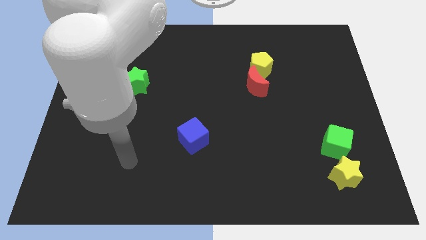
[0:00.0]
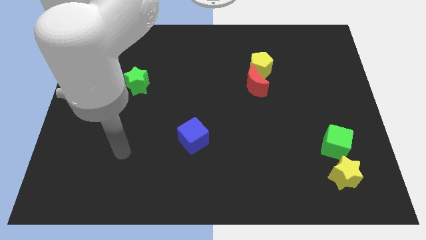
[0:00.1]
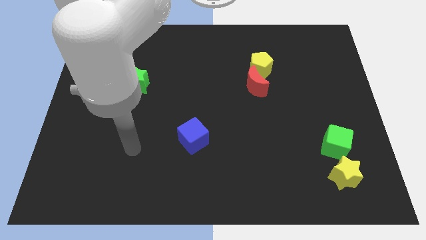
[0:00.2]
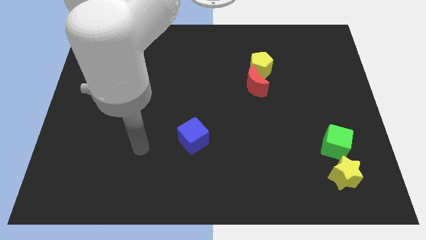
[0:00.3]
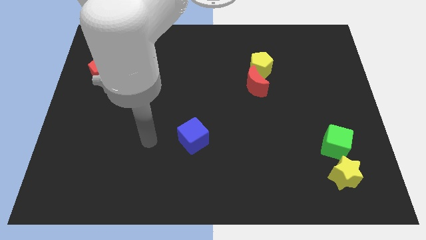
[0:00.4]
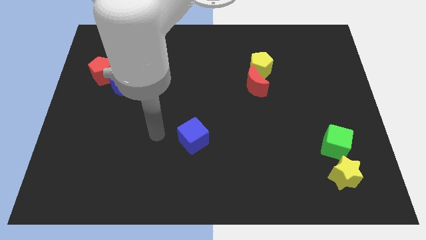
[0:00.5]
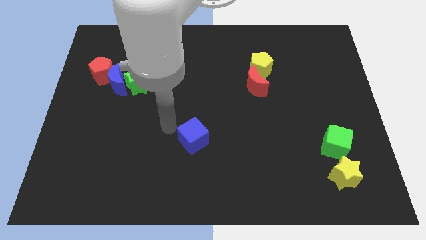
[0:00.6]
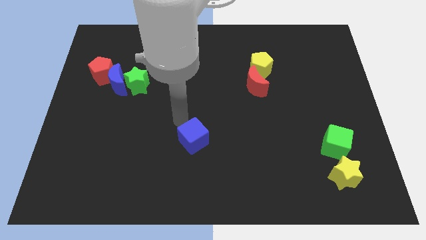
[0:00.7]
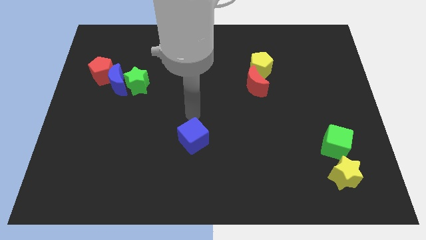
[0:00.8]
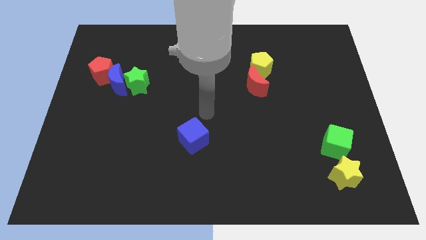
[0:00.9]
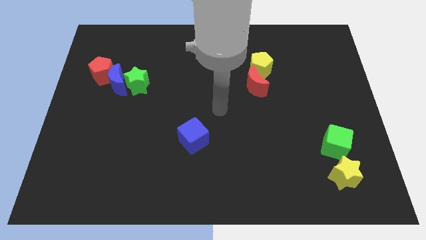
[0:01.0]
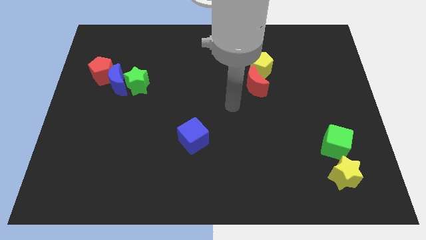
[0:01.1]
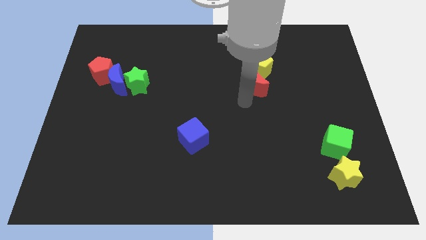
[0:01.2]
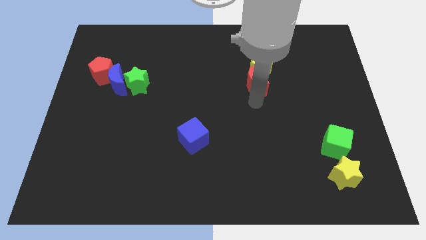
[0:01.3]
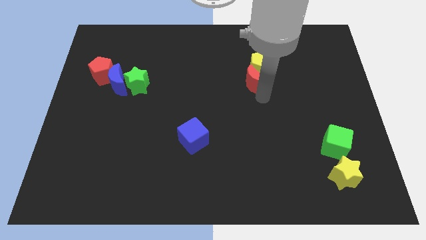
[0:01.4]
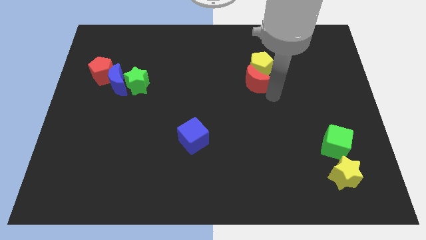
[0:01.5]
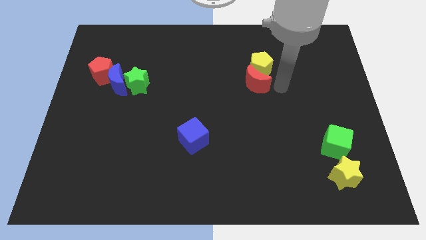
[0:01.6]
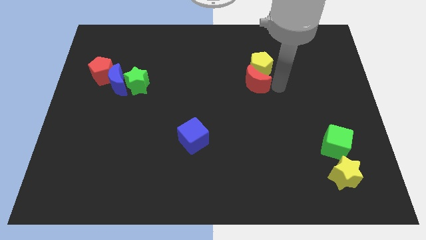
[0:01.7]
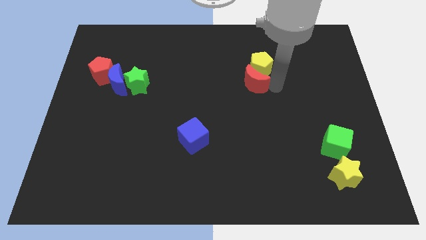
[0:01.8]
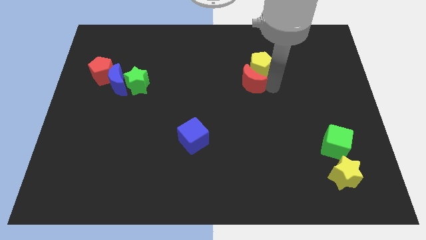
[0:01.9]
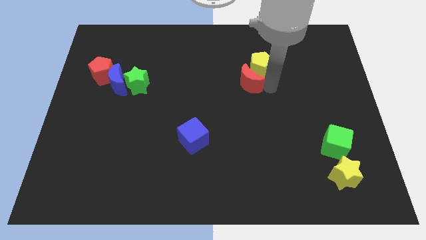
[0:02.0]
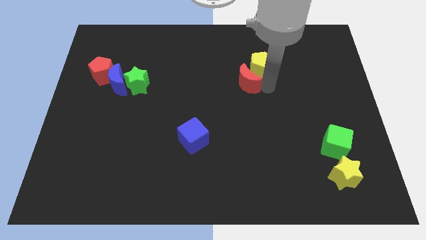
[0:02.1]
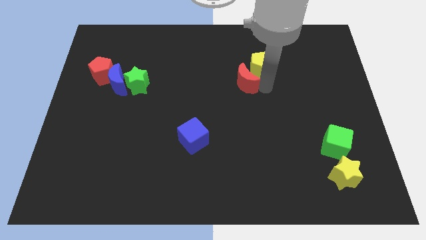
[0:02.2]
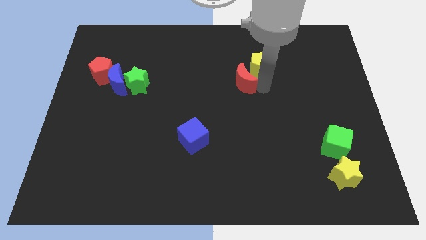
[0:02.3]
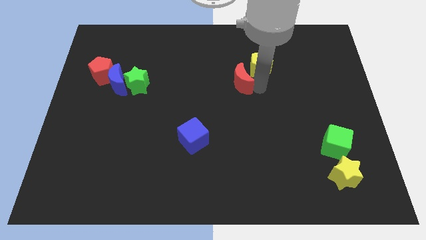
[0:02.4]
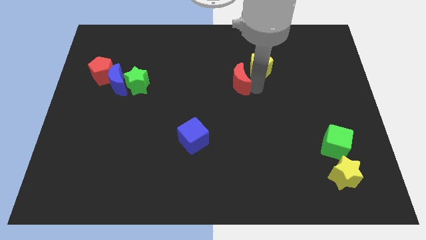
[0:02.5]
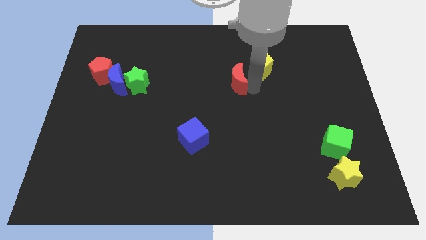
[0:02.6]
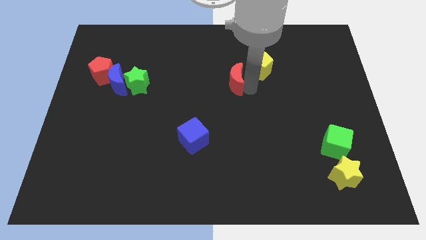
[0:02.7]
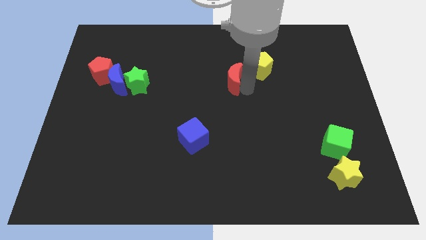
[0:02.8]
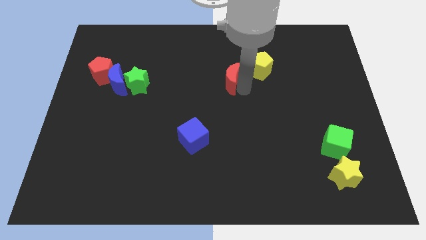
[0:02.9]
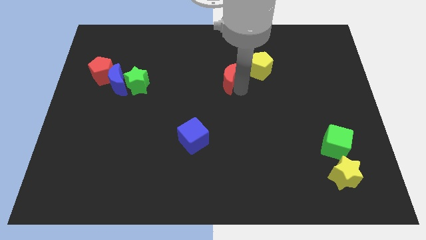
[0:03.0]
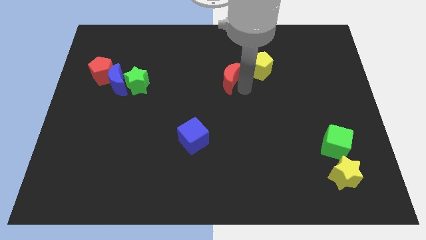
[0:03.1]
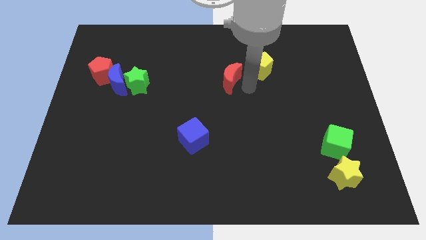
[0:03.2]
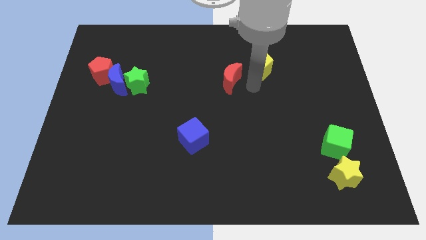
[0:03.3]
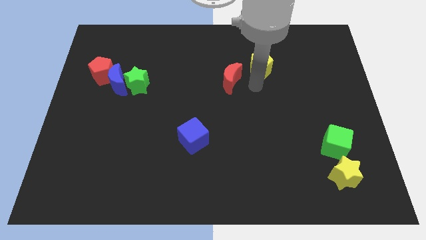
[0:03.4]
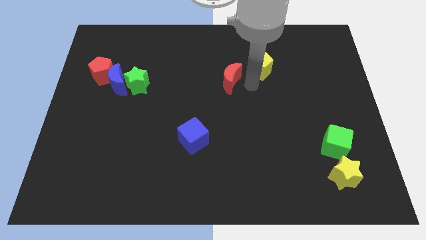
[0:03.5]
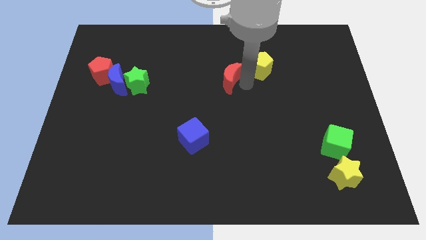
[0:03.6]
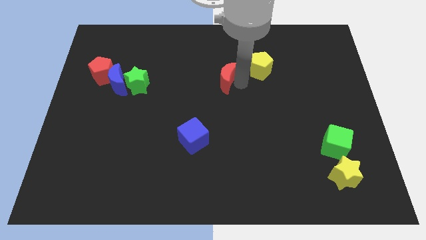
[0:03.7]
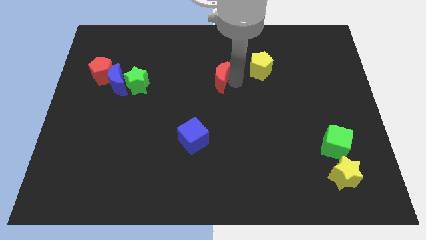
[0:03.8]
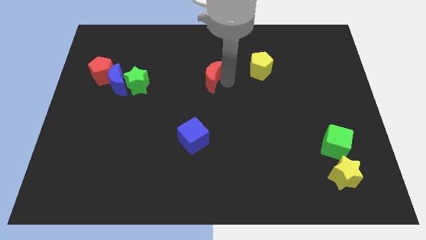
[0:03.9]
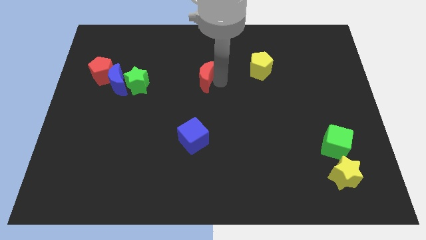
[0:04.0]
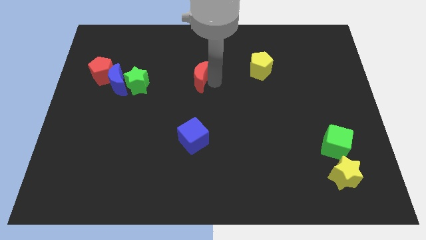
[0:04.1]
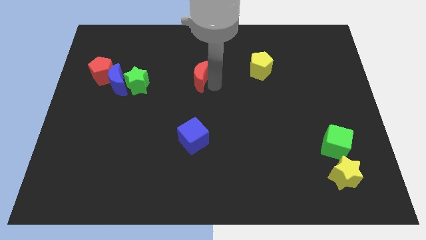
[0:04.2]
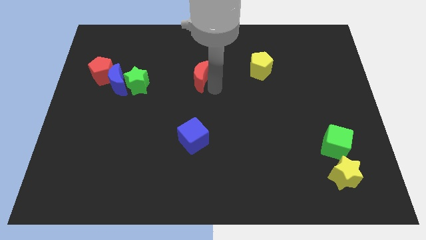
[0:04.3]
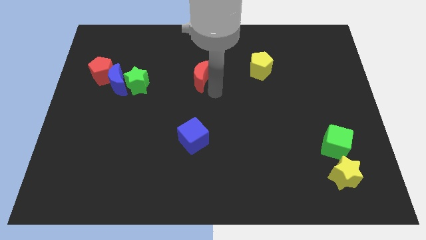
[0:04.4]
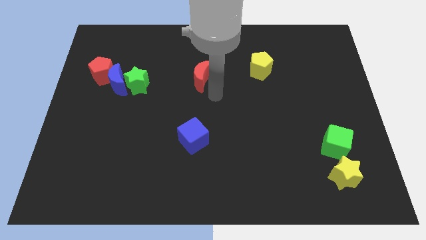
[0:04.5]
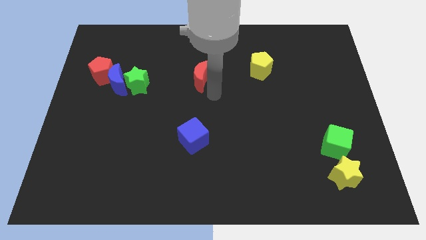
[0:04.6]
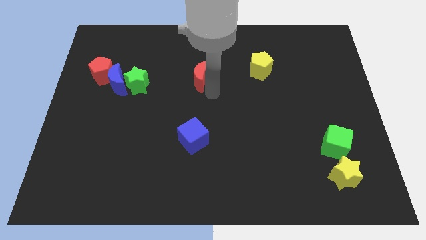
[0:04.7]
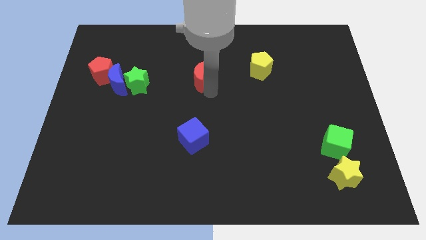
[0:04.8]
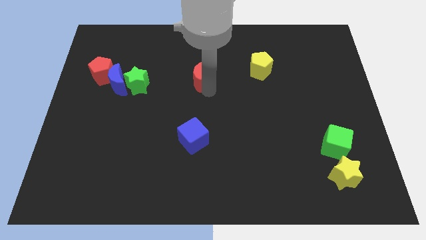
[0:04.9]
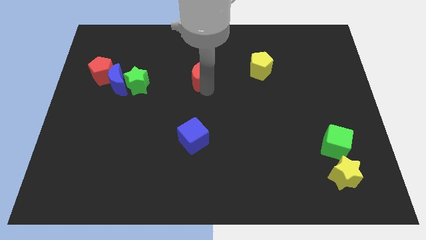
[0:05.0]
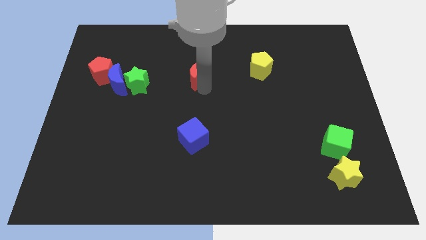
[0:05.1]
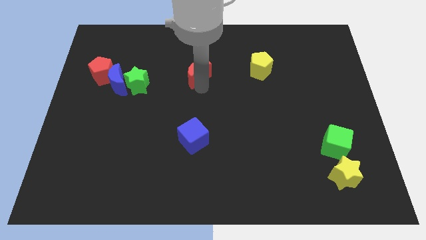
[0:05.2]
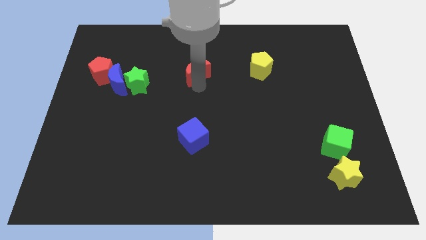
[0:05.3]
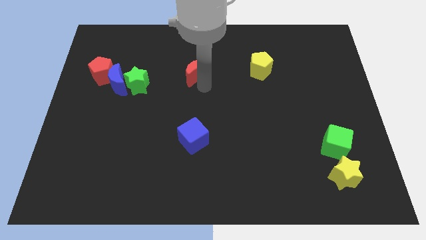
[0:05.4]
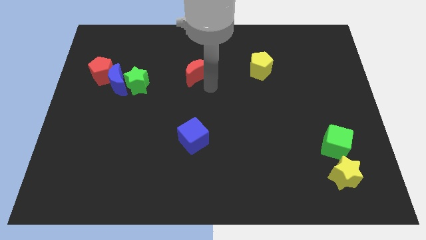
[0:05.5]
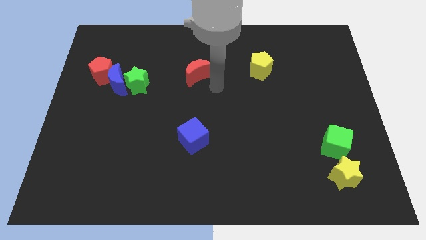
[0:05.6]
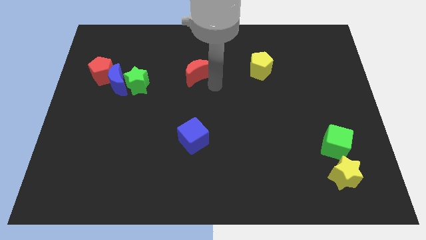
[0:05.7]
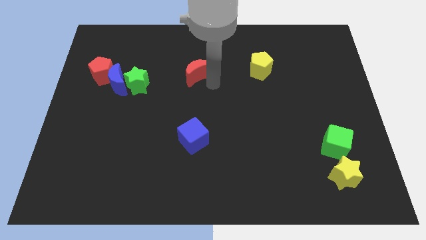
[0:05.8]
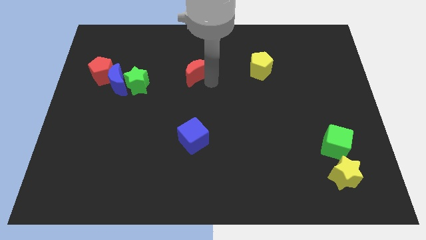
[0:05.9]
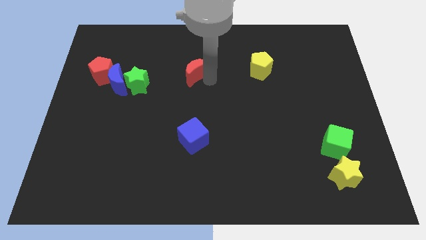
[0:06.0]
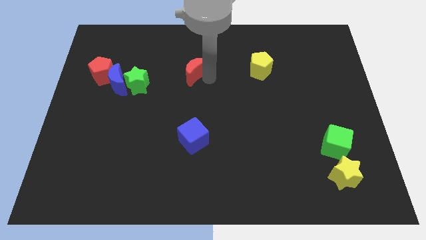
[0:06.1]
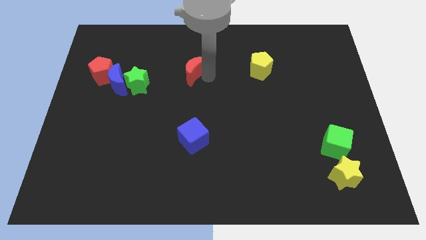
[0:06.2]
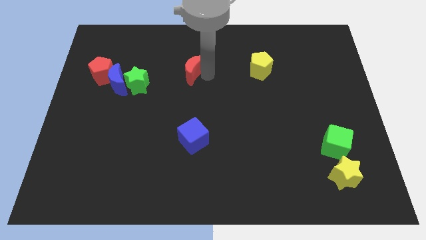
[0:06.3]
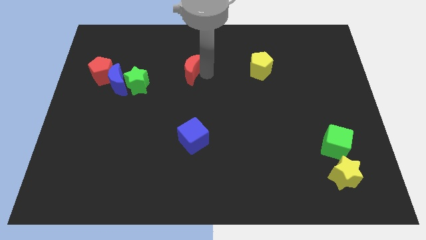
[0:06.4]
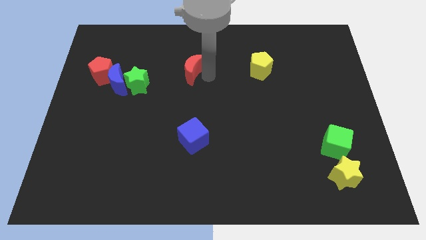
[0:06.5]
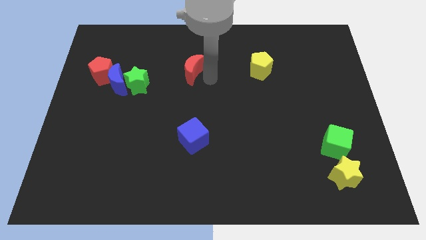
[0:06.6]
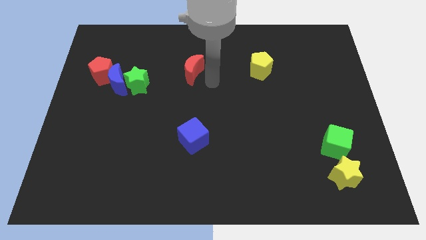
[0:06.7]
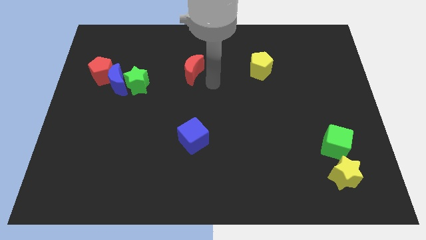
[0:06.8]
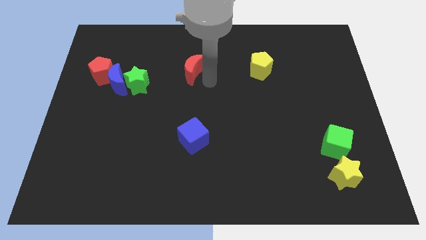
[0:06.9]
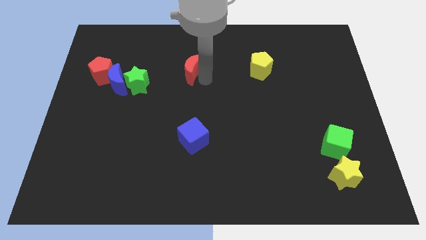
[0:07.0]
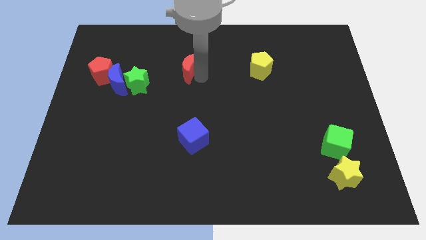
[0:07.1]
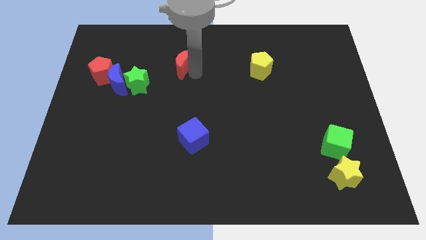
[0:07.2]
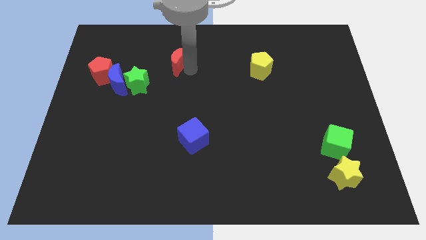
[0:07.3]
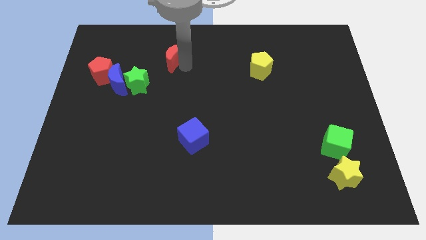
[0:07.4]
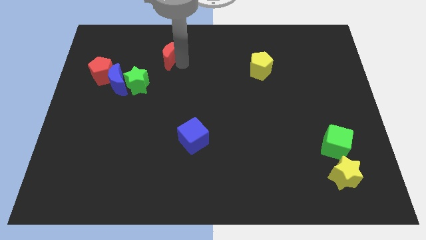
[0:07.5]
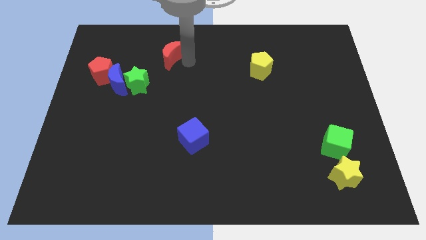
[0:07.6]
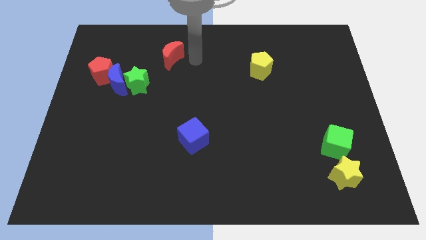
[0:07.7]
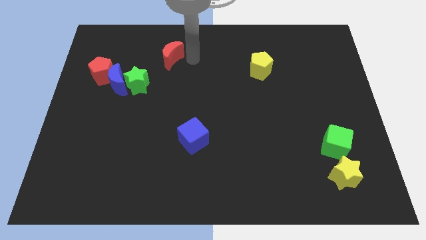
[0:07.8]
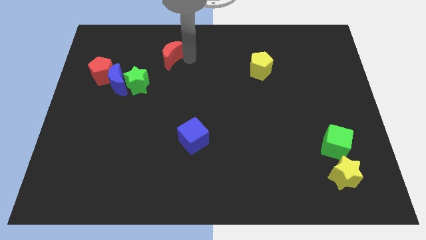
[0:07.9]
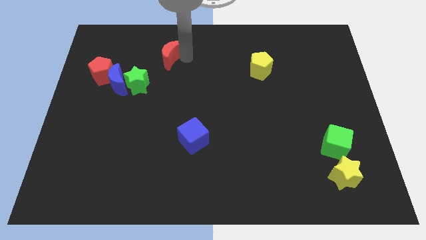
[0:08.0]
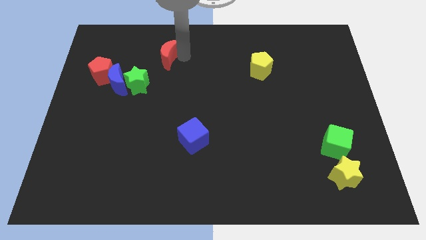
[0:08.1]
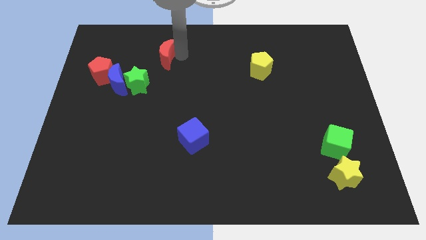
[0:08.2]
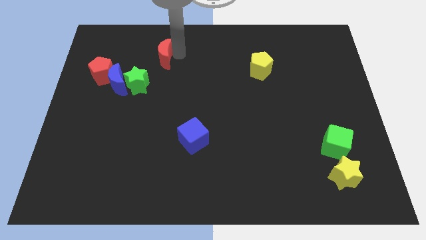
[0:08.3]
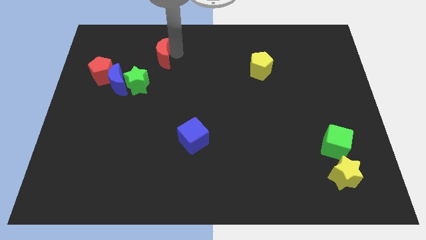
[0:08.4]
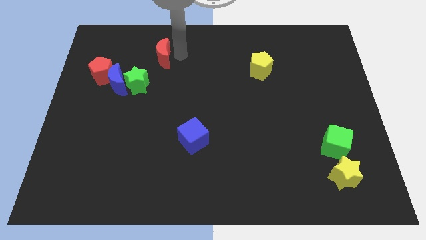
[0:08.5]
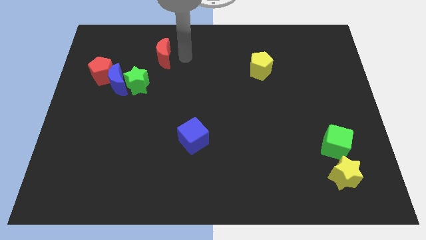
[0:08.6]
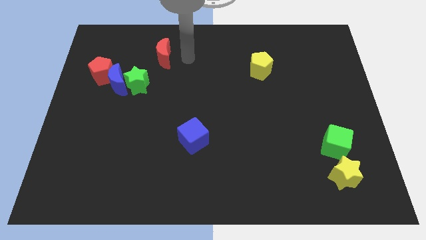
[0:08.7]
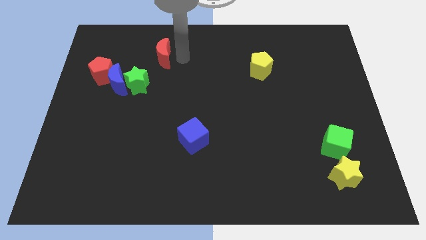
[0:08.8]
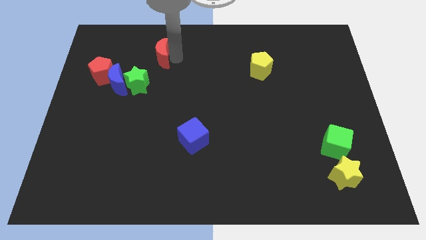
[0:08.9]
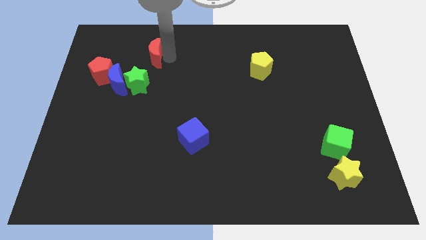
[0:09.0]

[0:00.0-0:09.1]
put the red moon to the top side of the green star
